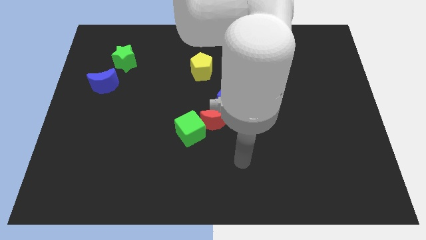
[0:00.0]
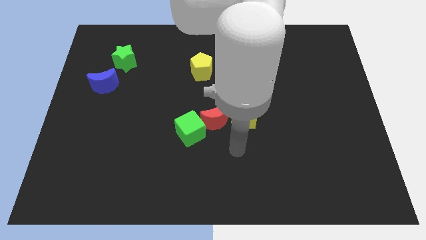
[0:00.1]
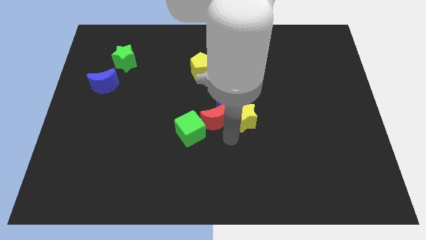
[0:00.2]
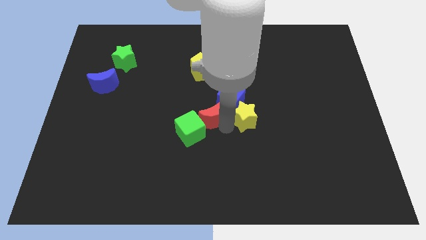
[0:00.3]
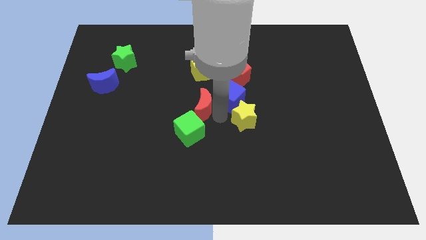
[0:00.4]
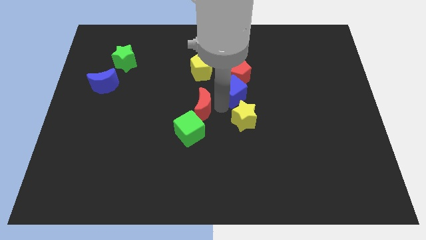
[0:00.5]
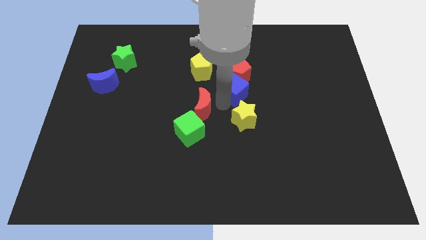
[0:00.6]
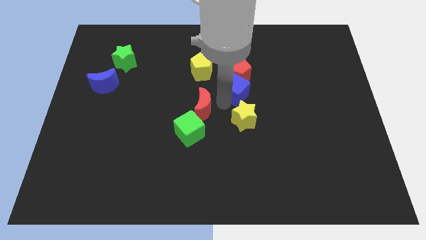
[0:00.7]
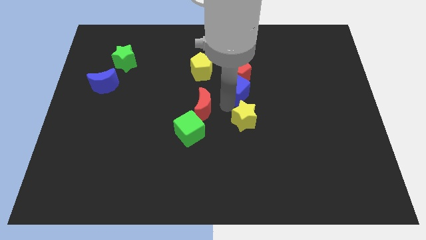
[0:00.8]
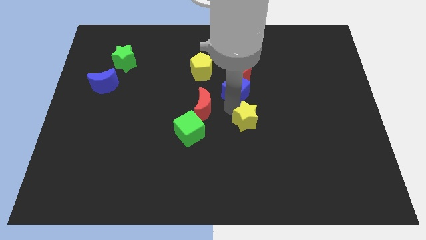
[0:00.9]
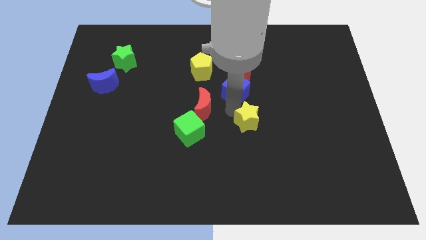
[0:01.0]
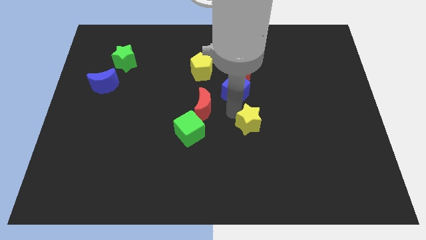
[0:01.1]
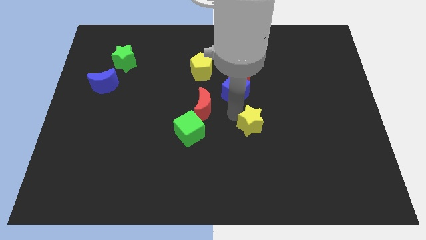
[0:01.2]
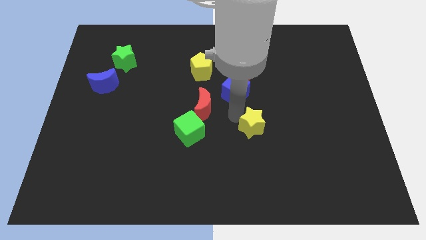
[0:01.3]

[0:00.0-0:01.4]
pull the yellow star apart from the blue cube and red moon

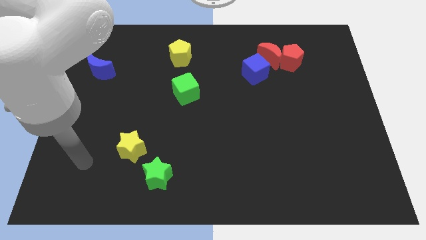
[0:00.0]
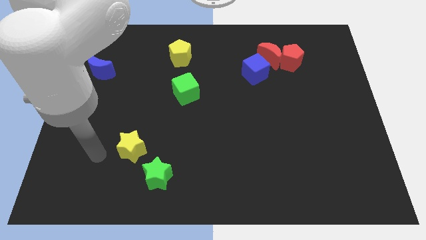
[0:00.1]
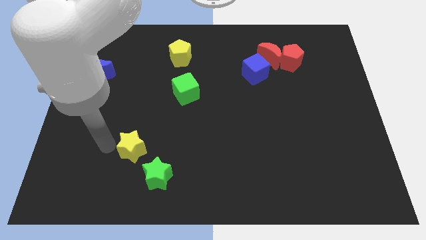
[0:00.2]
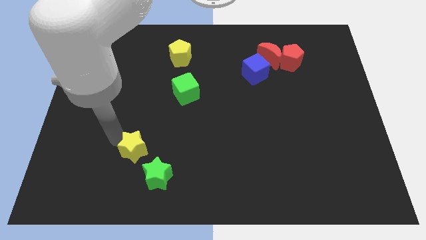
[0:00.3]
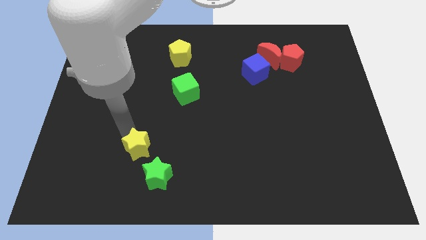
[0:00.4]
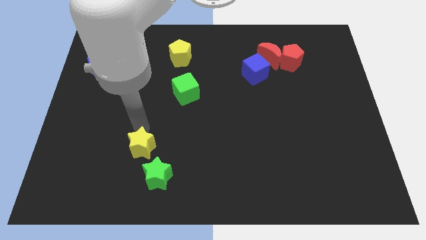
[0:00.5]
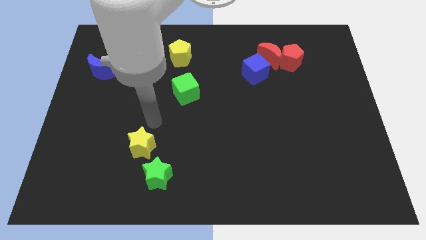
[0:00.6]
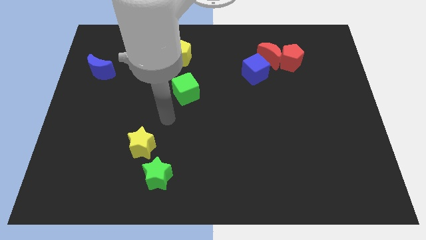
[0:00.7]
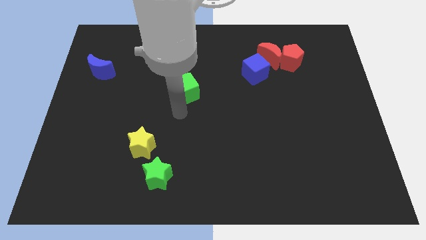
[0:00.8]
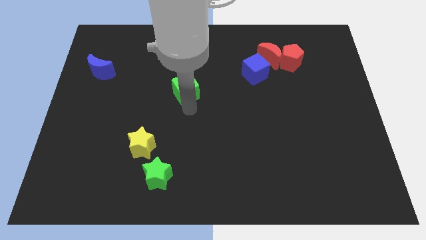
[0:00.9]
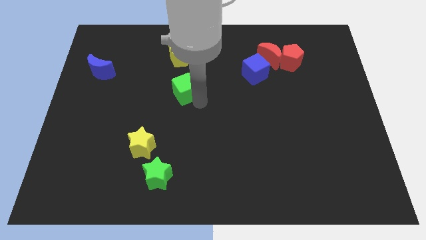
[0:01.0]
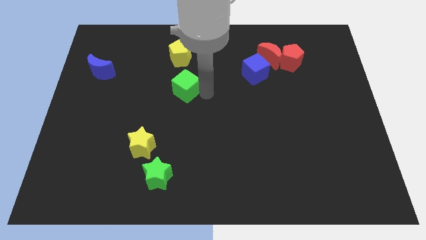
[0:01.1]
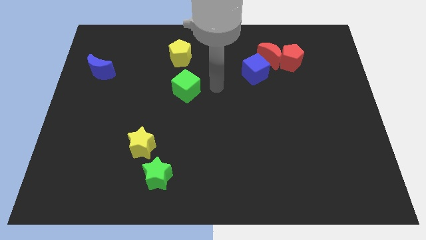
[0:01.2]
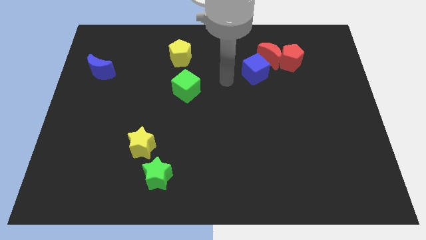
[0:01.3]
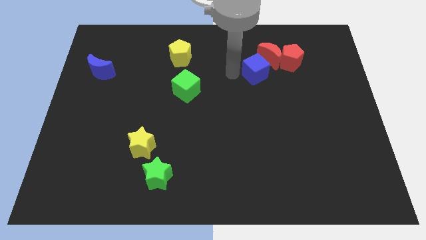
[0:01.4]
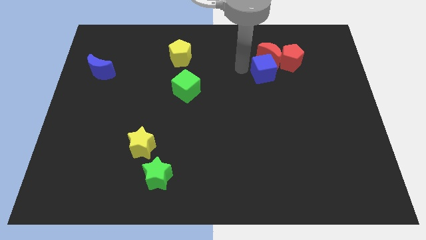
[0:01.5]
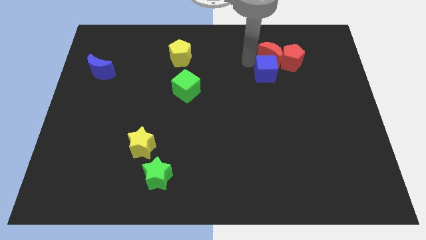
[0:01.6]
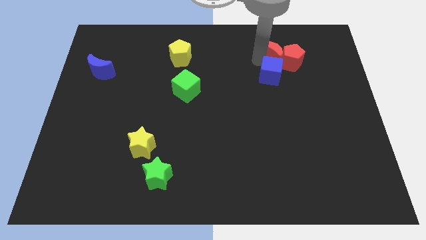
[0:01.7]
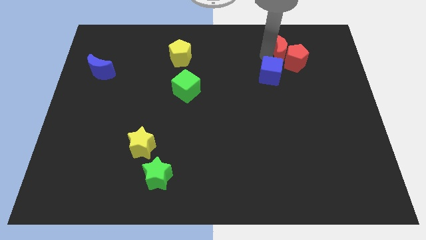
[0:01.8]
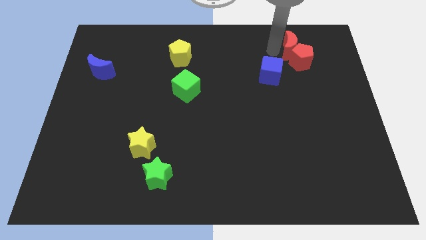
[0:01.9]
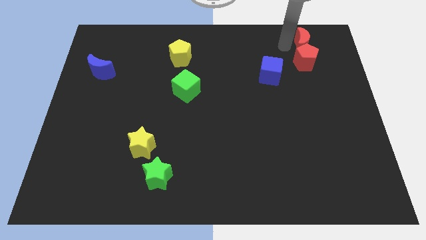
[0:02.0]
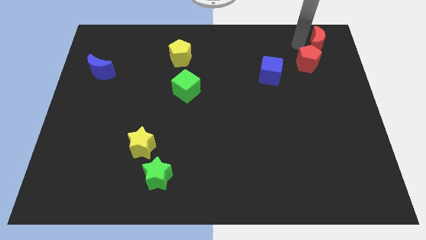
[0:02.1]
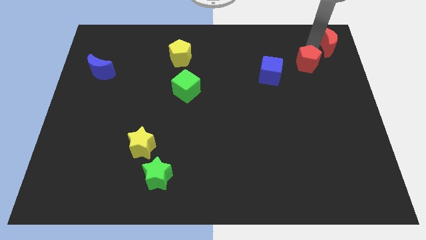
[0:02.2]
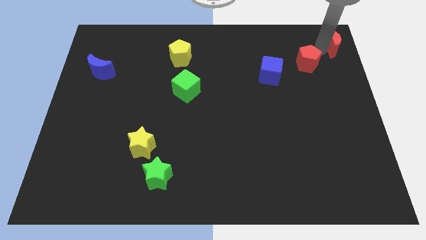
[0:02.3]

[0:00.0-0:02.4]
move the red pentagon away from the red moon

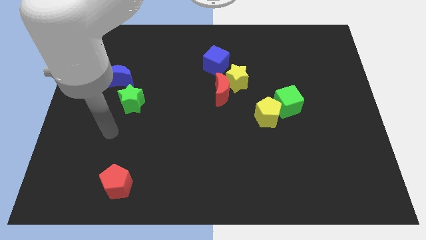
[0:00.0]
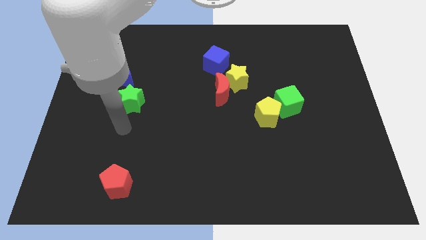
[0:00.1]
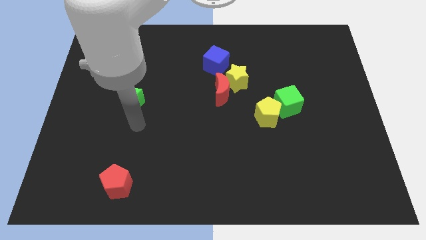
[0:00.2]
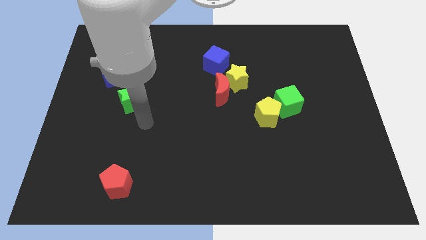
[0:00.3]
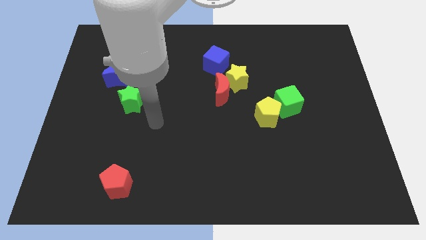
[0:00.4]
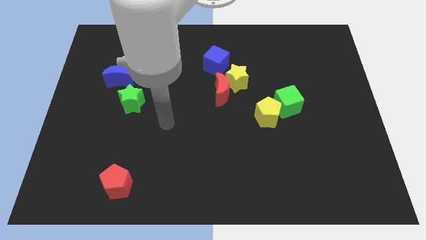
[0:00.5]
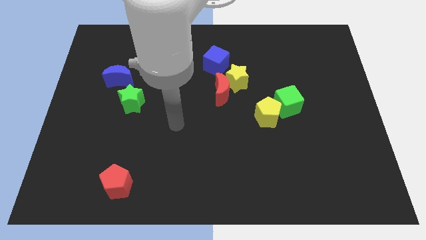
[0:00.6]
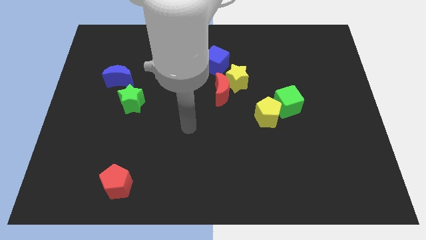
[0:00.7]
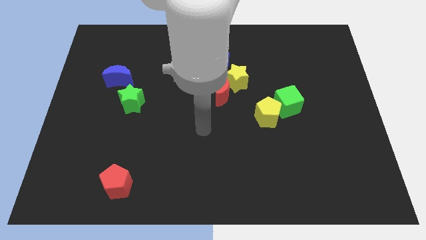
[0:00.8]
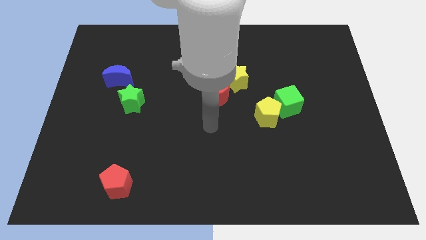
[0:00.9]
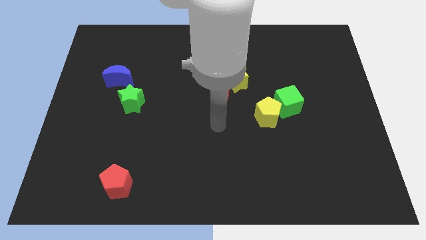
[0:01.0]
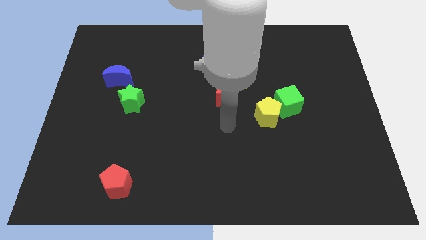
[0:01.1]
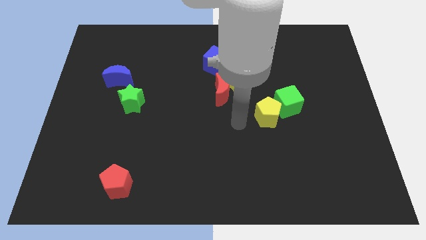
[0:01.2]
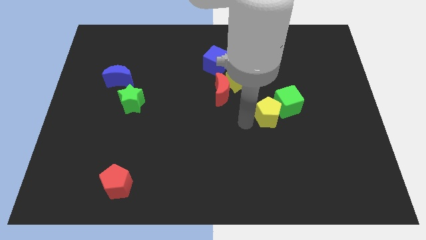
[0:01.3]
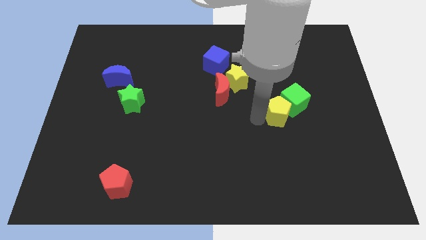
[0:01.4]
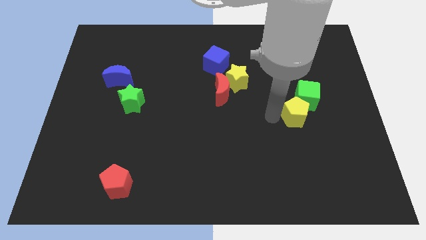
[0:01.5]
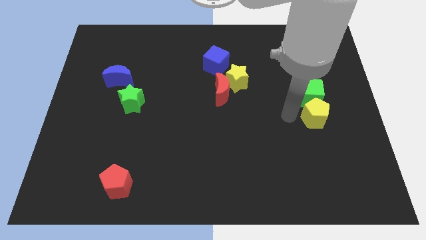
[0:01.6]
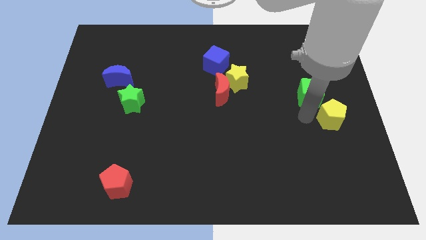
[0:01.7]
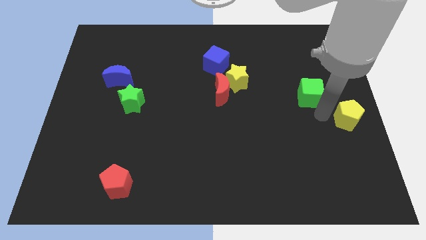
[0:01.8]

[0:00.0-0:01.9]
separate the green cube from the yellow pentagon

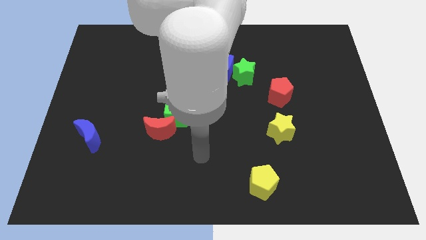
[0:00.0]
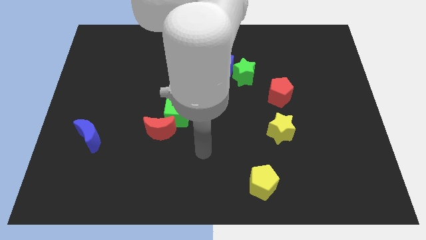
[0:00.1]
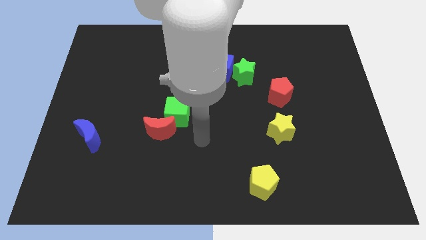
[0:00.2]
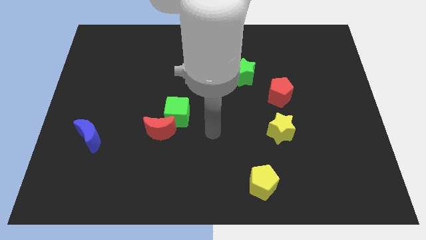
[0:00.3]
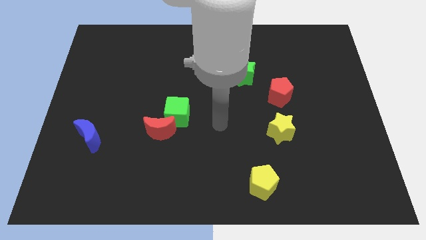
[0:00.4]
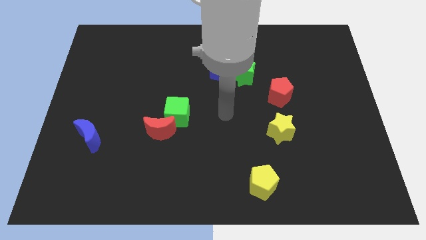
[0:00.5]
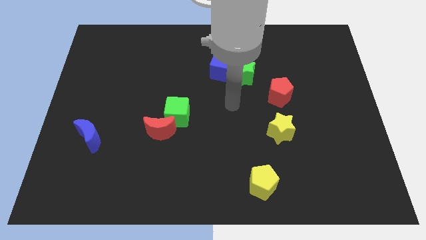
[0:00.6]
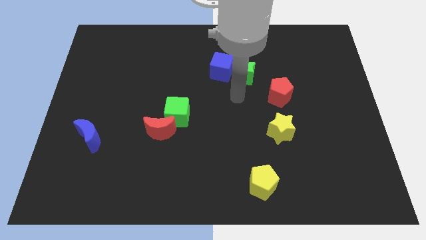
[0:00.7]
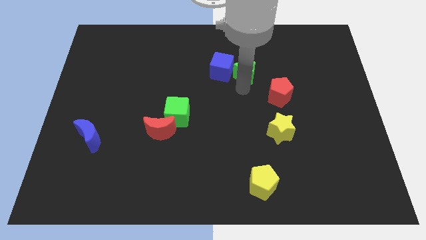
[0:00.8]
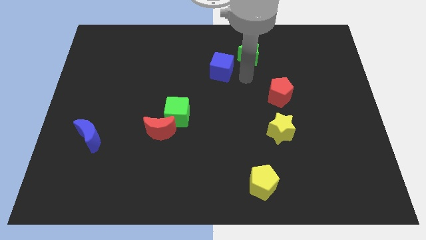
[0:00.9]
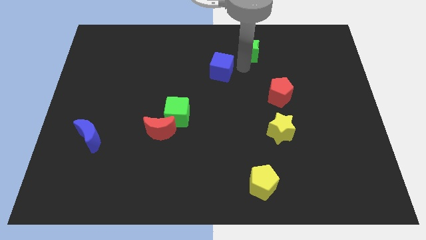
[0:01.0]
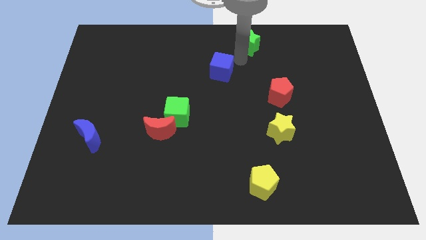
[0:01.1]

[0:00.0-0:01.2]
pull the blue cube apart from the green star

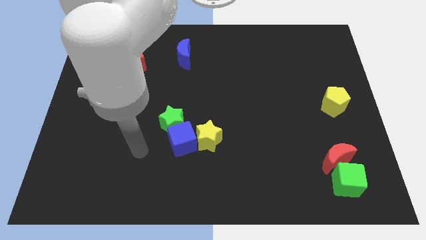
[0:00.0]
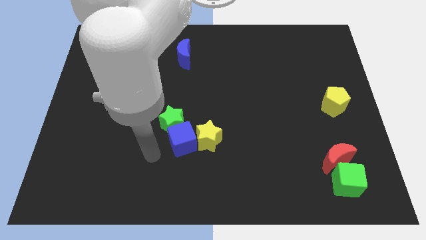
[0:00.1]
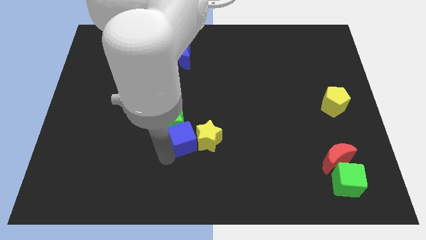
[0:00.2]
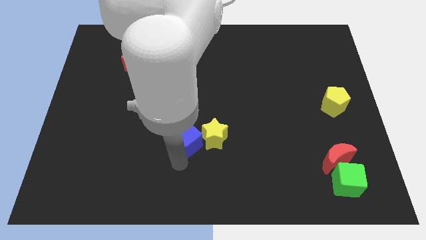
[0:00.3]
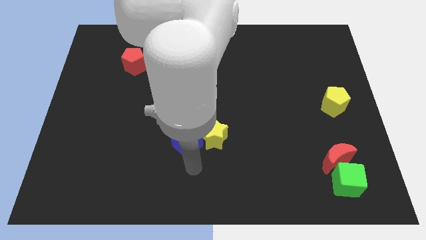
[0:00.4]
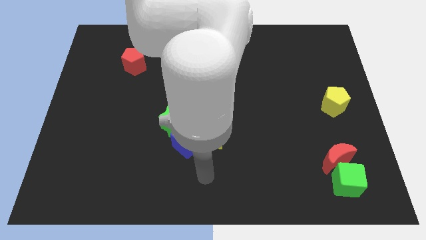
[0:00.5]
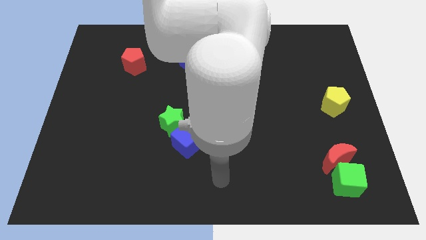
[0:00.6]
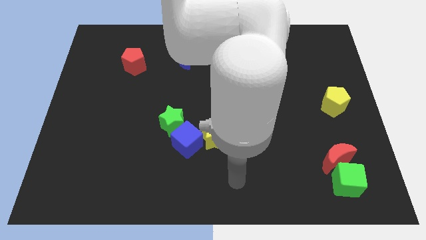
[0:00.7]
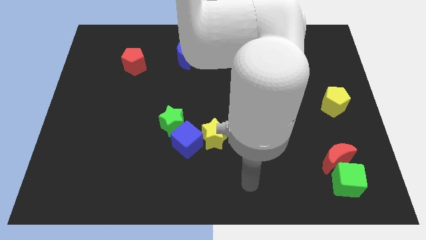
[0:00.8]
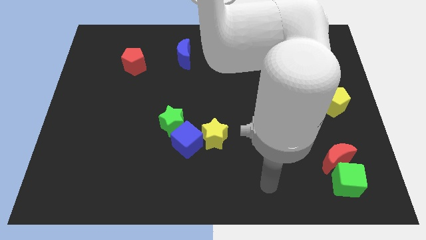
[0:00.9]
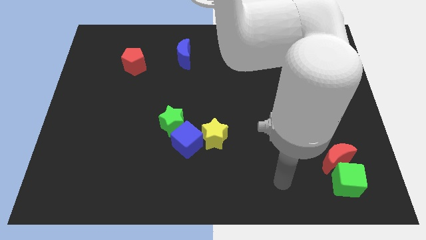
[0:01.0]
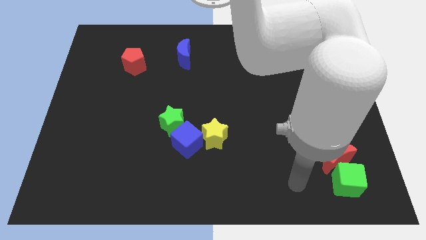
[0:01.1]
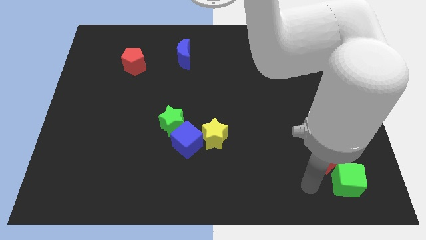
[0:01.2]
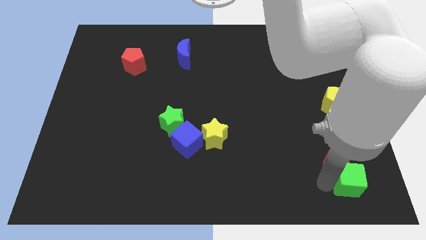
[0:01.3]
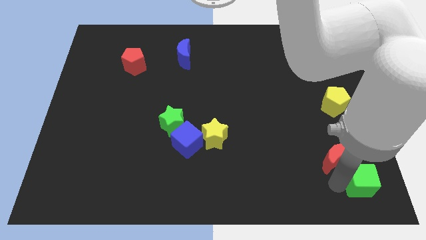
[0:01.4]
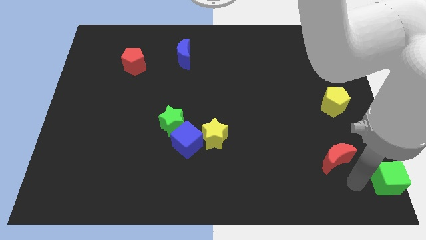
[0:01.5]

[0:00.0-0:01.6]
move the red moon away from the green cube

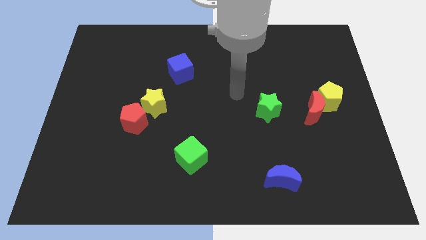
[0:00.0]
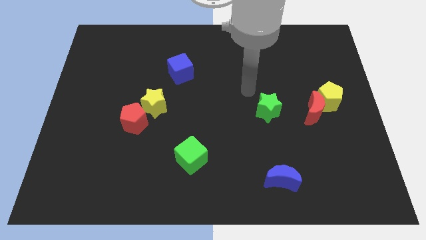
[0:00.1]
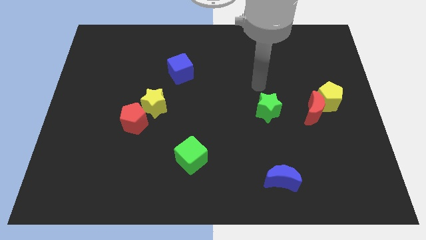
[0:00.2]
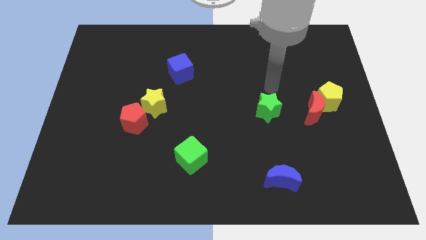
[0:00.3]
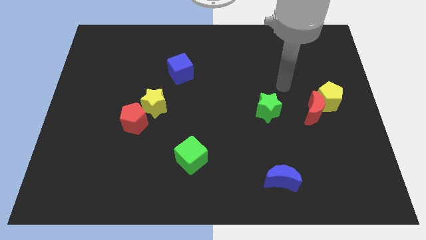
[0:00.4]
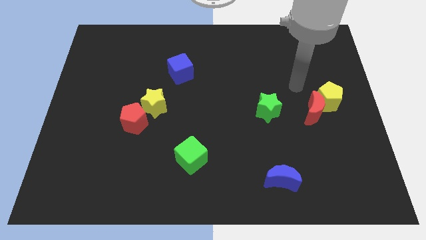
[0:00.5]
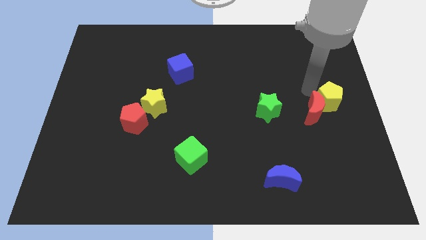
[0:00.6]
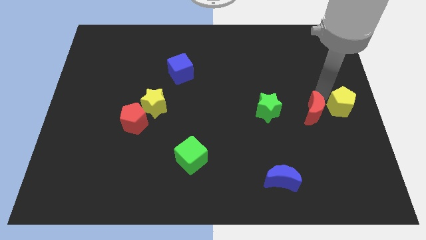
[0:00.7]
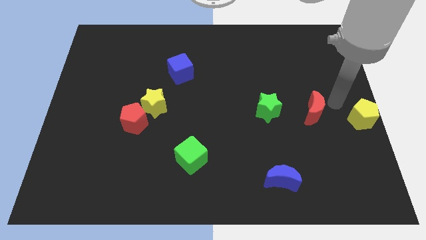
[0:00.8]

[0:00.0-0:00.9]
move the red moon away from the yellow pentagon
